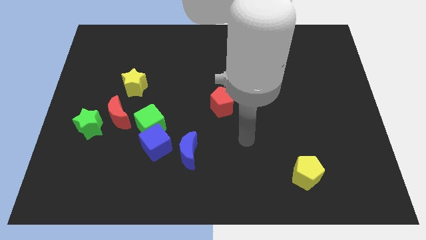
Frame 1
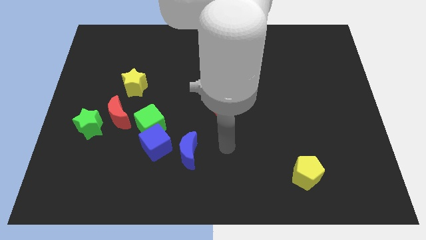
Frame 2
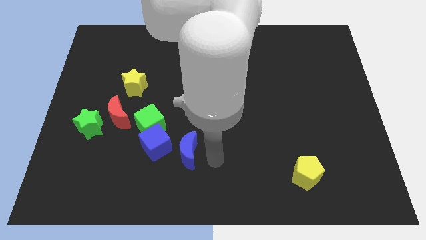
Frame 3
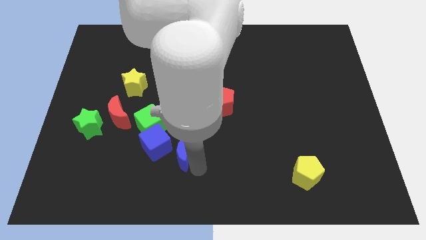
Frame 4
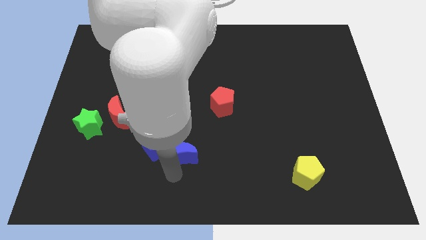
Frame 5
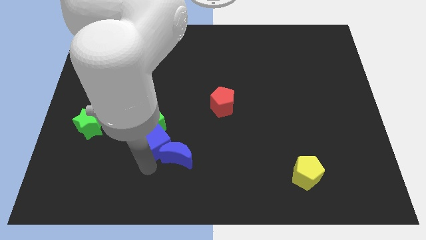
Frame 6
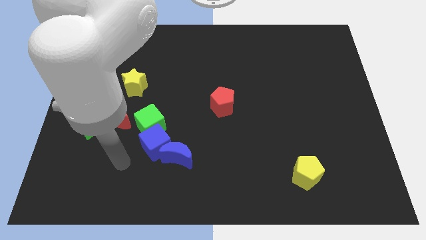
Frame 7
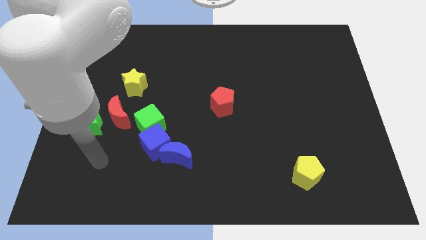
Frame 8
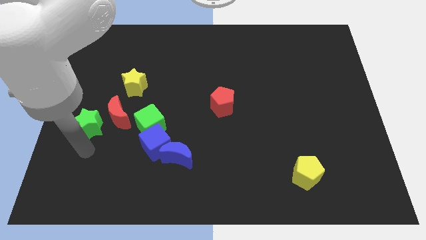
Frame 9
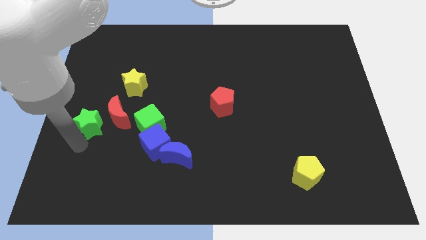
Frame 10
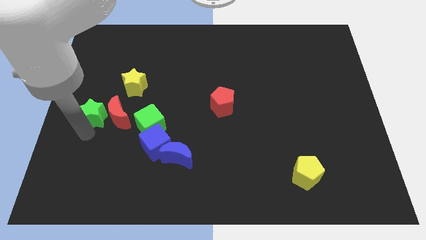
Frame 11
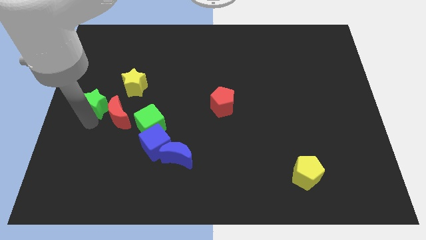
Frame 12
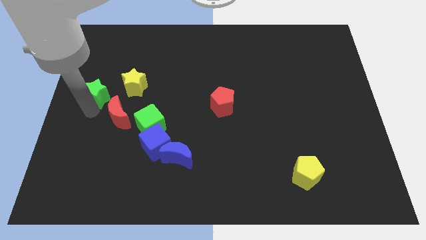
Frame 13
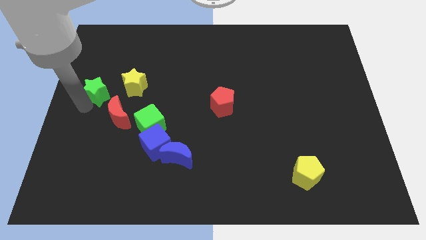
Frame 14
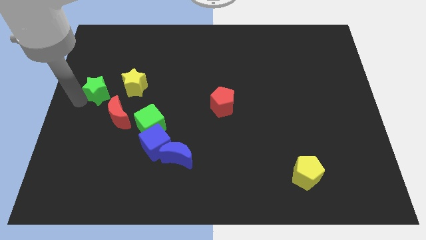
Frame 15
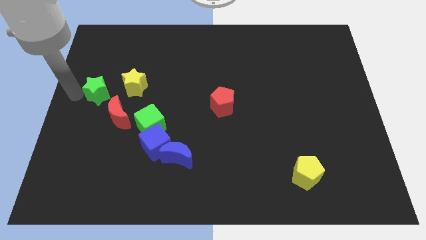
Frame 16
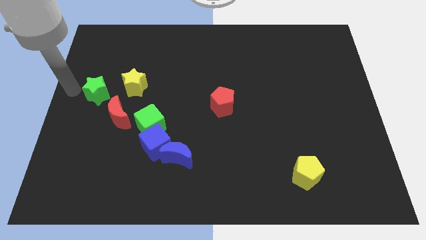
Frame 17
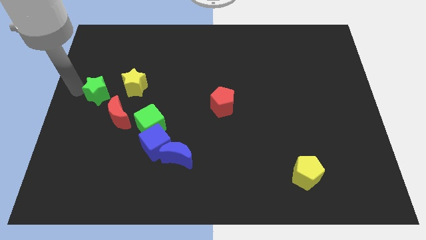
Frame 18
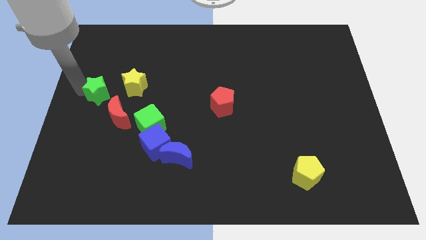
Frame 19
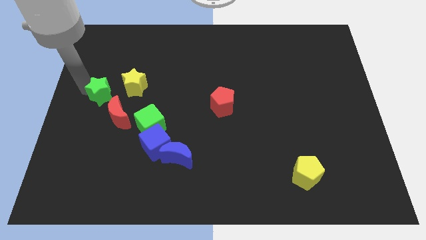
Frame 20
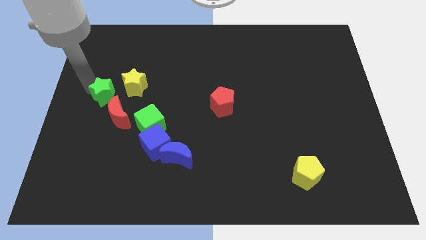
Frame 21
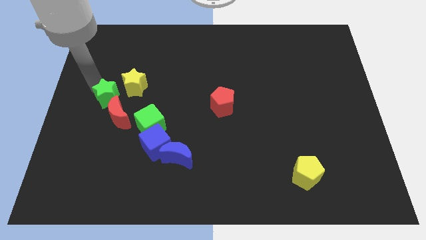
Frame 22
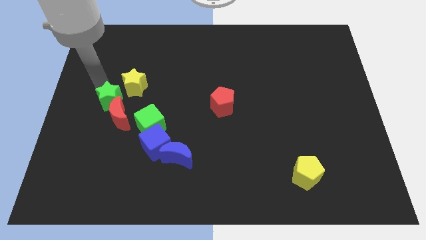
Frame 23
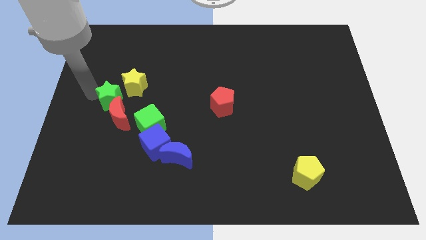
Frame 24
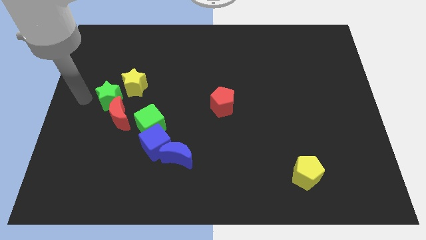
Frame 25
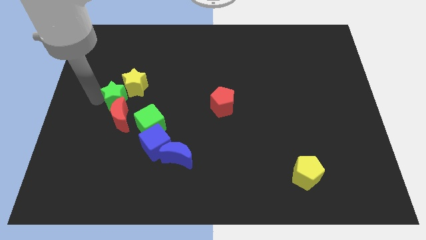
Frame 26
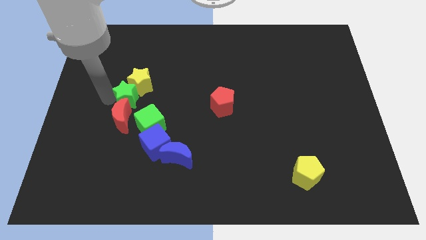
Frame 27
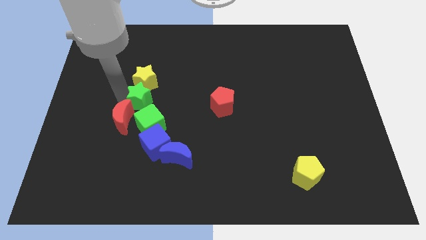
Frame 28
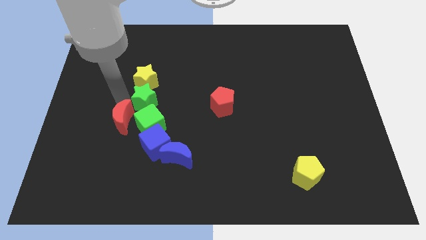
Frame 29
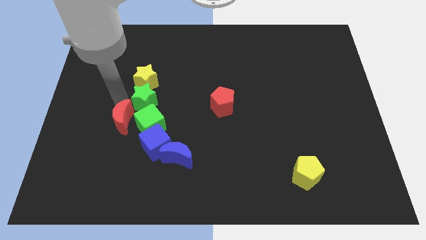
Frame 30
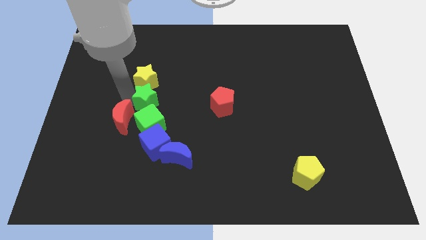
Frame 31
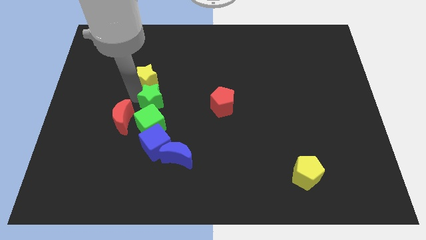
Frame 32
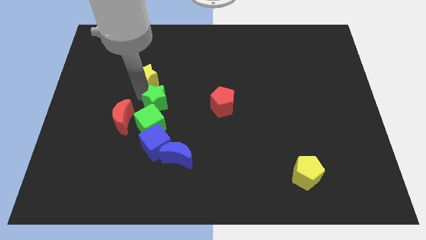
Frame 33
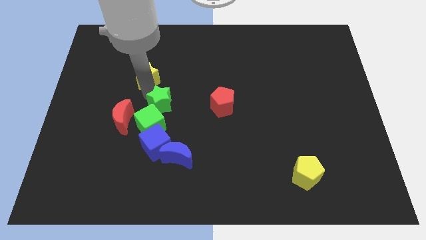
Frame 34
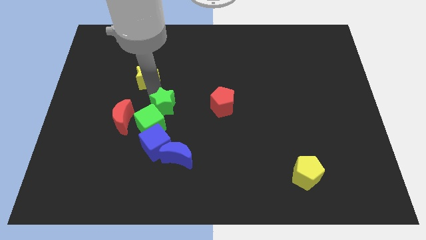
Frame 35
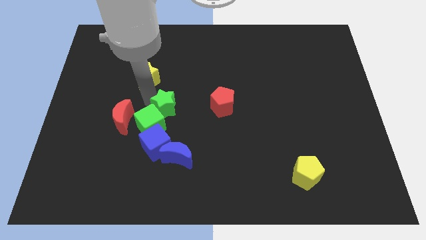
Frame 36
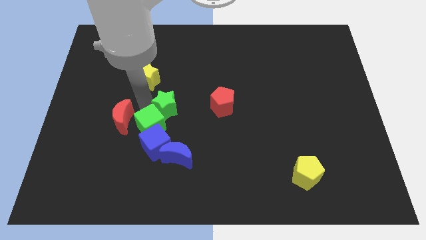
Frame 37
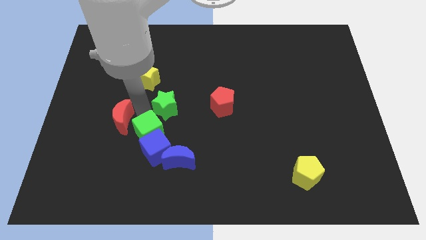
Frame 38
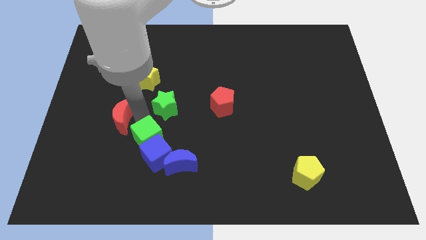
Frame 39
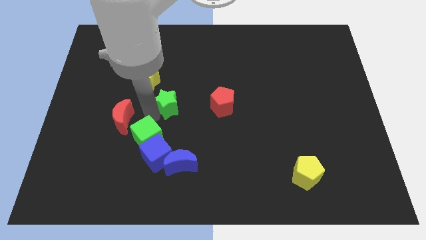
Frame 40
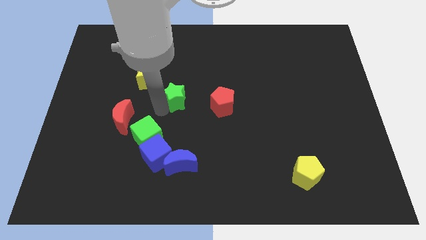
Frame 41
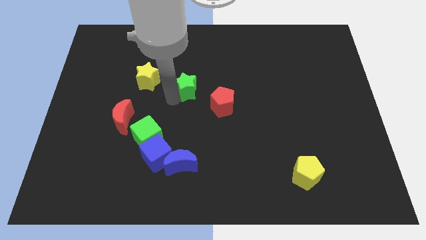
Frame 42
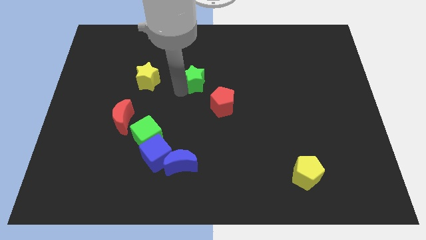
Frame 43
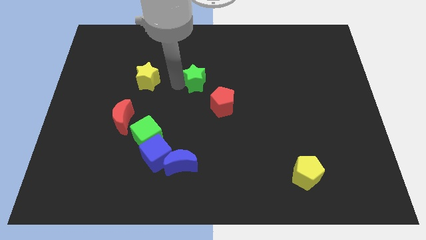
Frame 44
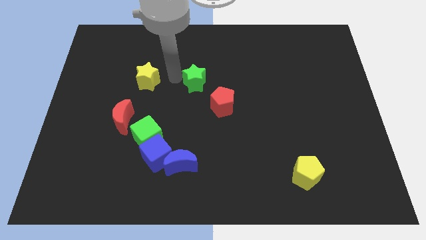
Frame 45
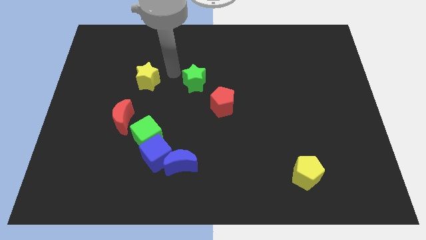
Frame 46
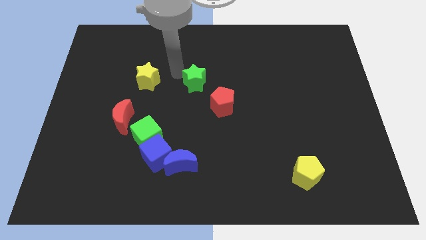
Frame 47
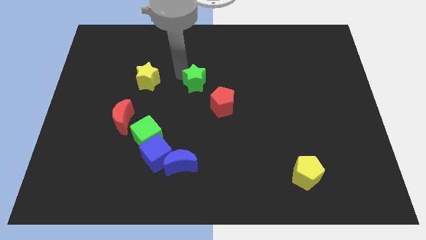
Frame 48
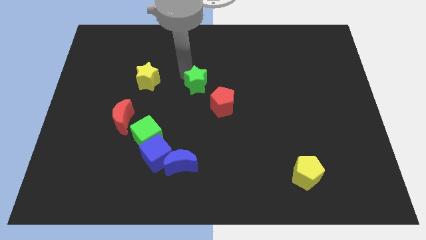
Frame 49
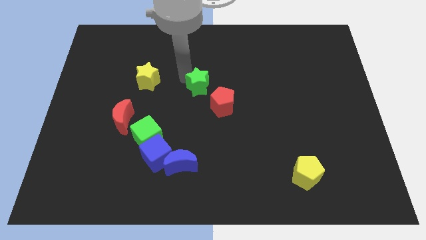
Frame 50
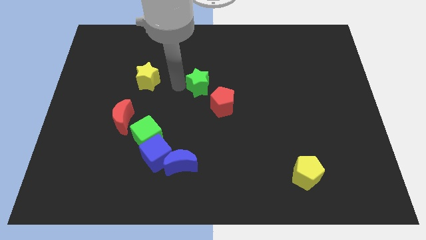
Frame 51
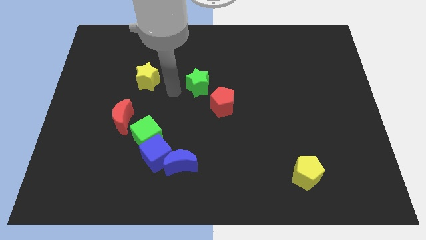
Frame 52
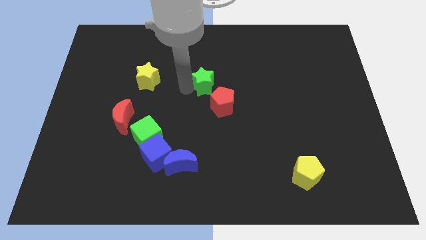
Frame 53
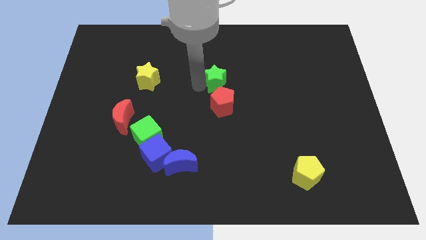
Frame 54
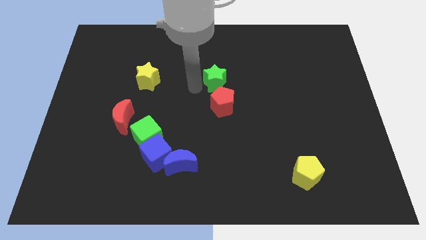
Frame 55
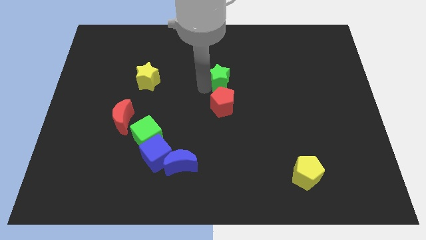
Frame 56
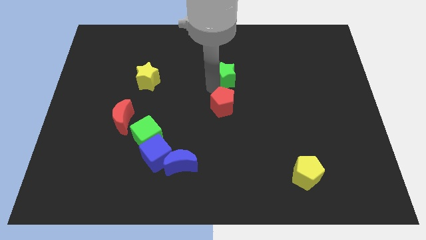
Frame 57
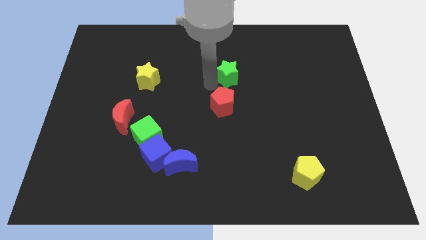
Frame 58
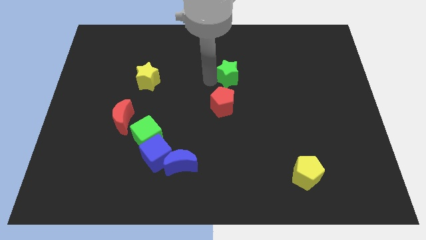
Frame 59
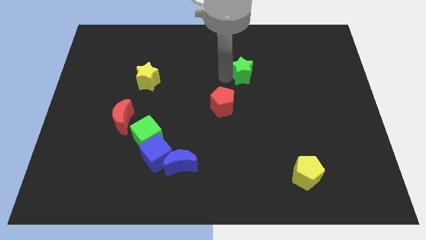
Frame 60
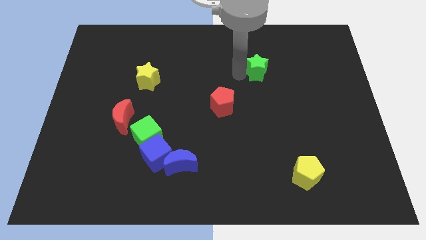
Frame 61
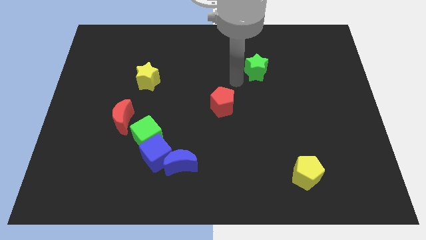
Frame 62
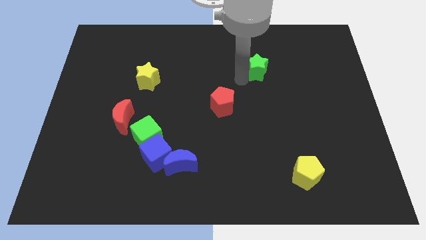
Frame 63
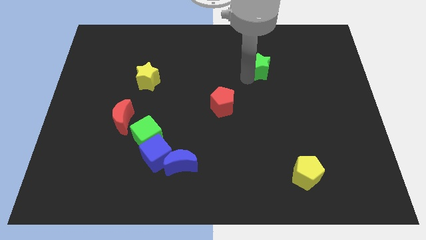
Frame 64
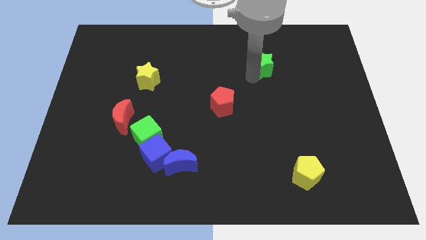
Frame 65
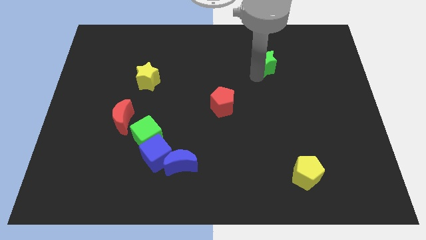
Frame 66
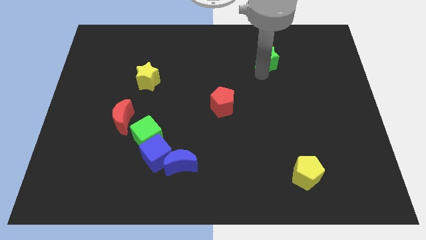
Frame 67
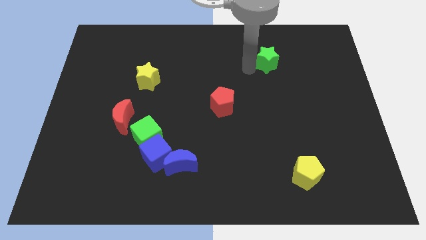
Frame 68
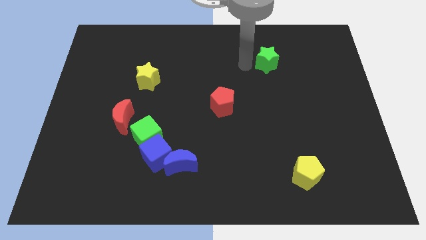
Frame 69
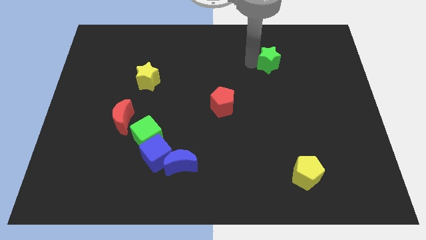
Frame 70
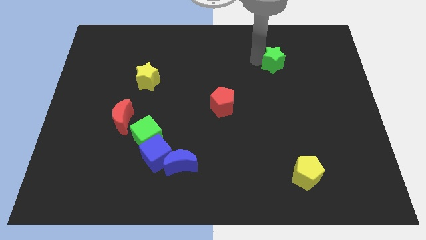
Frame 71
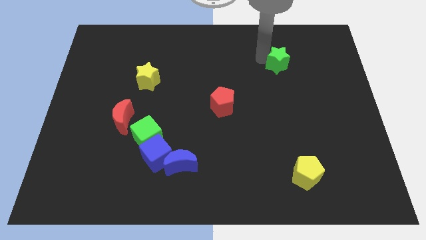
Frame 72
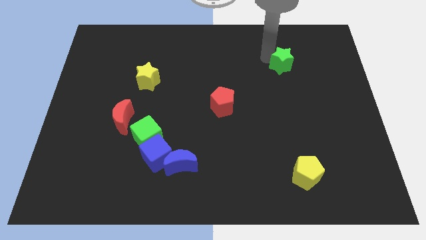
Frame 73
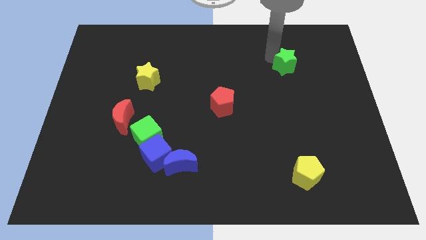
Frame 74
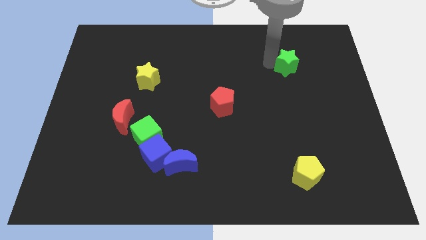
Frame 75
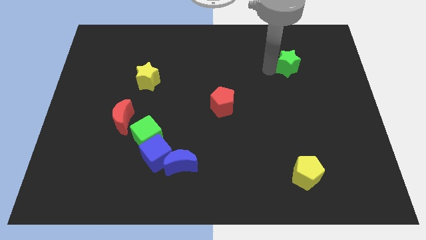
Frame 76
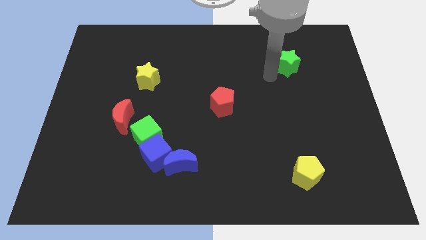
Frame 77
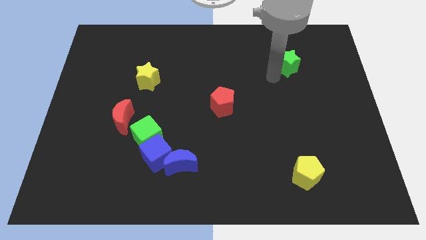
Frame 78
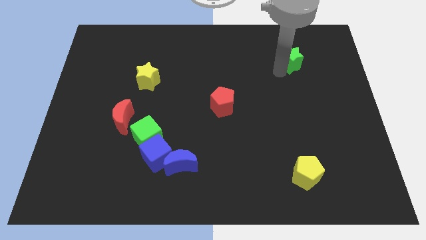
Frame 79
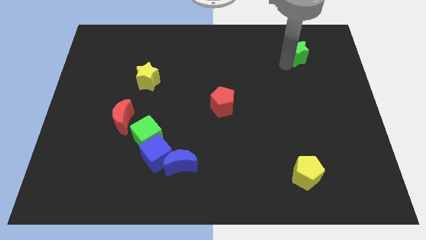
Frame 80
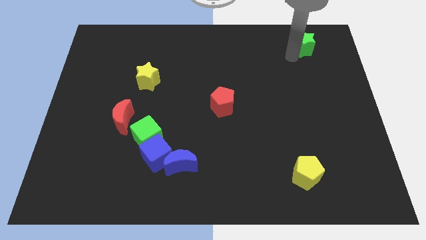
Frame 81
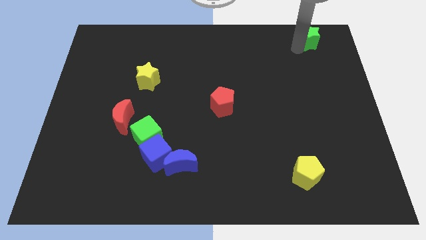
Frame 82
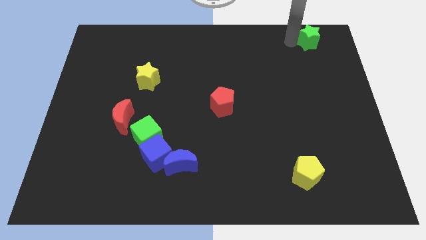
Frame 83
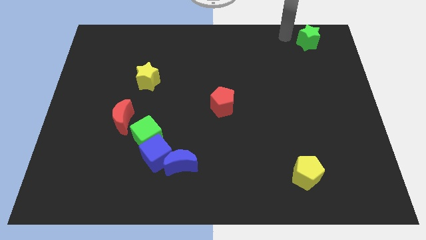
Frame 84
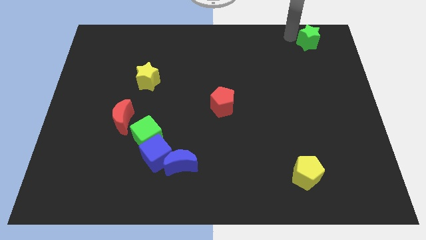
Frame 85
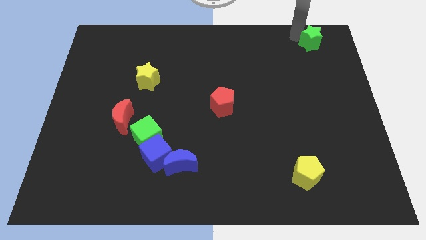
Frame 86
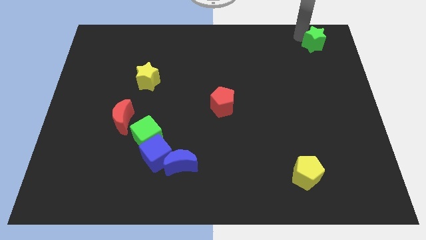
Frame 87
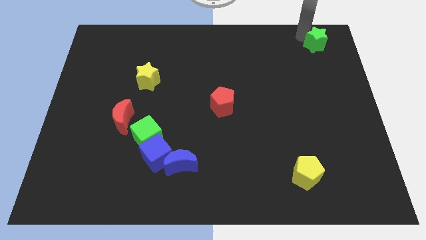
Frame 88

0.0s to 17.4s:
move the green star to the top right corner
